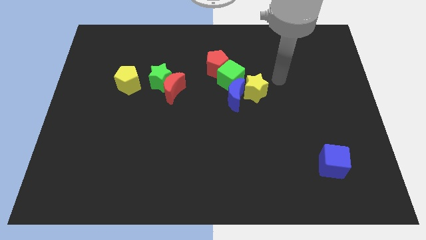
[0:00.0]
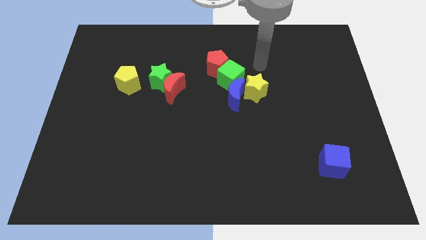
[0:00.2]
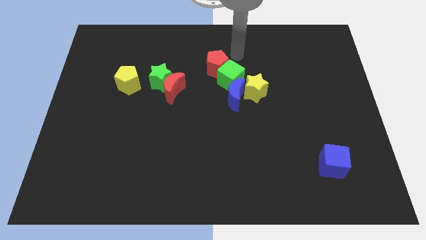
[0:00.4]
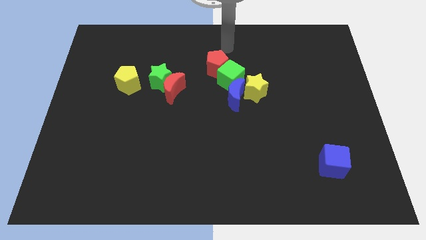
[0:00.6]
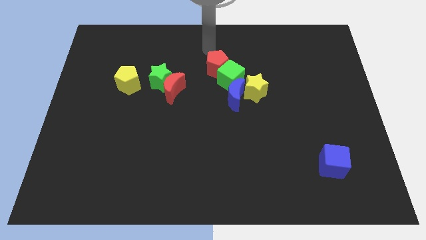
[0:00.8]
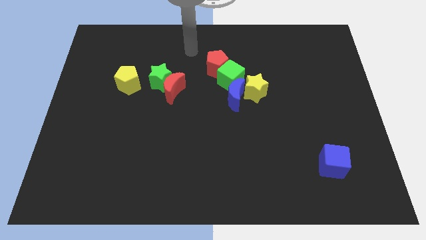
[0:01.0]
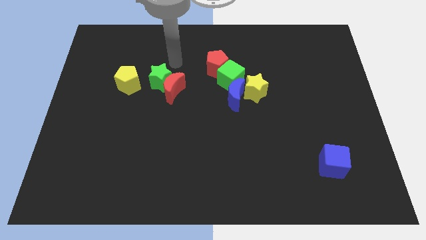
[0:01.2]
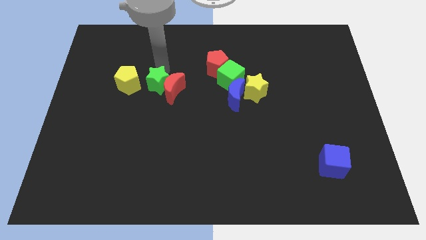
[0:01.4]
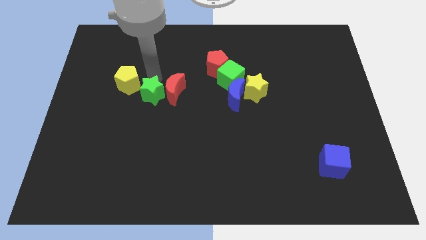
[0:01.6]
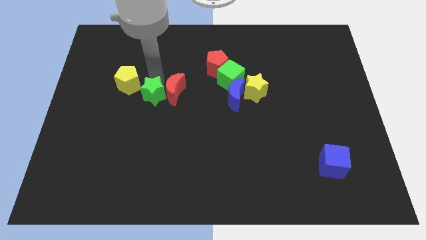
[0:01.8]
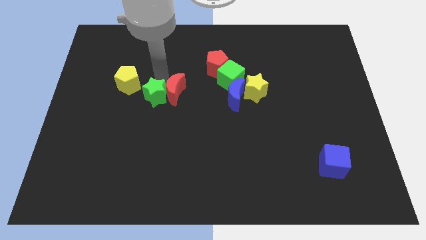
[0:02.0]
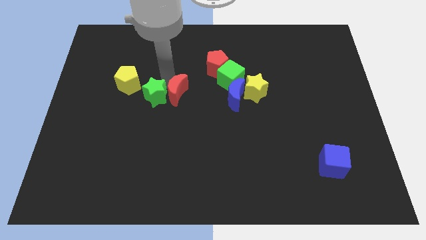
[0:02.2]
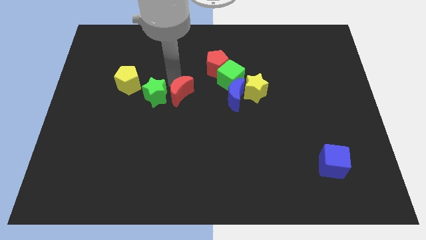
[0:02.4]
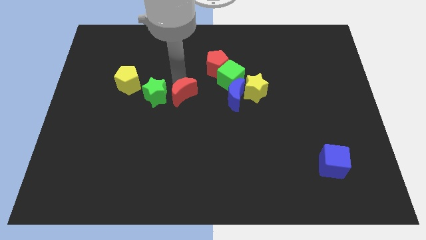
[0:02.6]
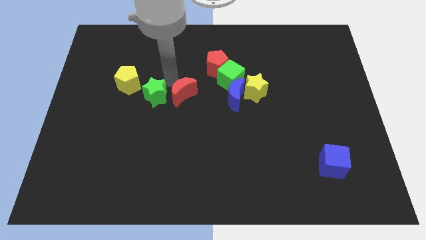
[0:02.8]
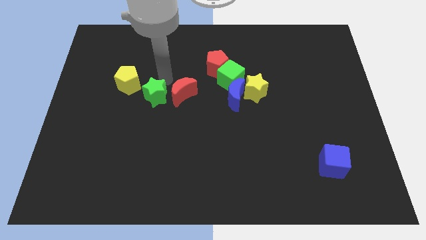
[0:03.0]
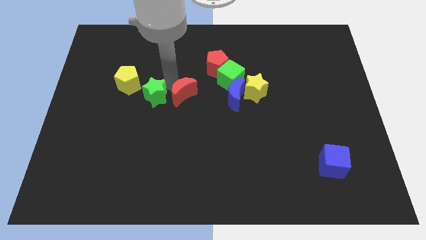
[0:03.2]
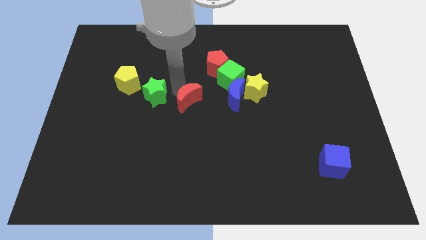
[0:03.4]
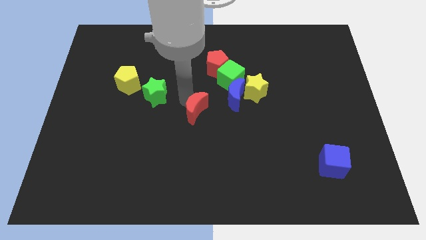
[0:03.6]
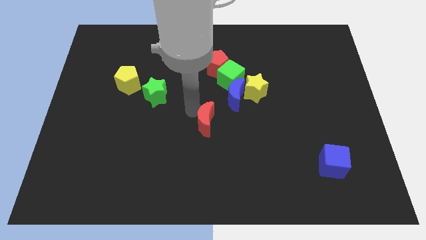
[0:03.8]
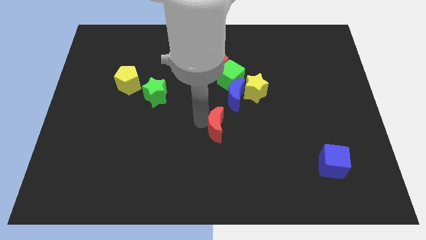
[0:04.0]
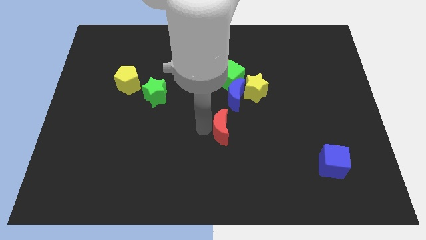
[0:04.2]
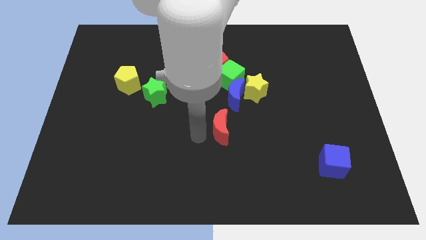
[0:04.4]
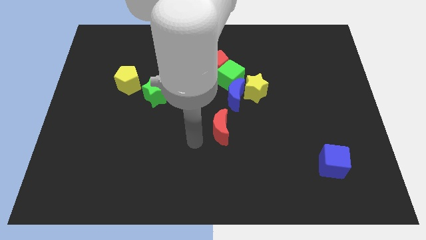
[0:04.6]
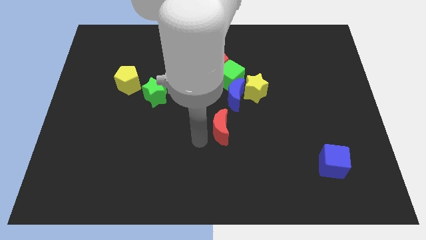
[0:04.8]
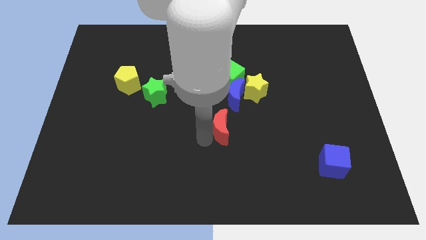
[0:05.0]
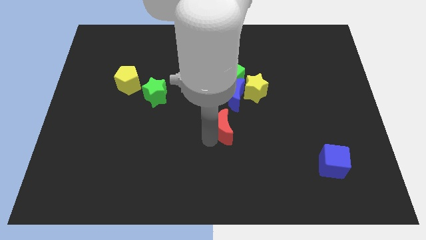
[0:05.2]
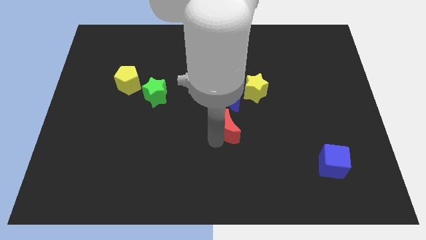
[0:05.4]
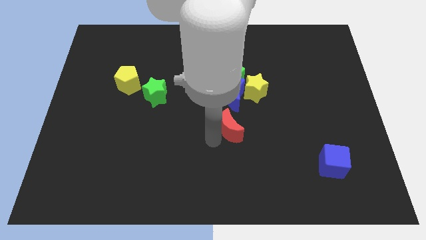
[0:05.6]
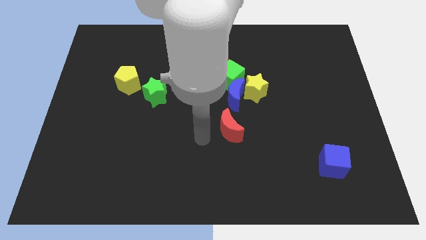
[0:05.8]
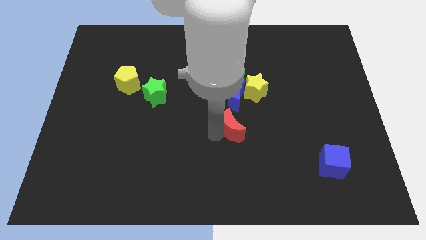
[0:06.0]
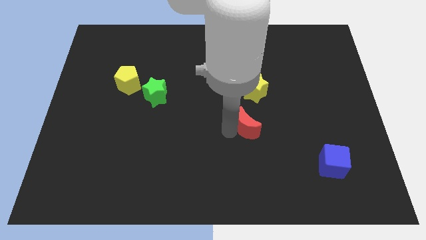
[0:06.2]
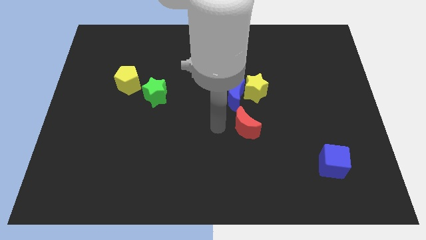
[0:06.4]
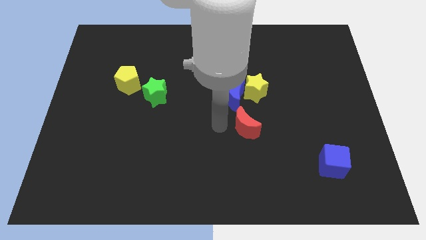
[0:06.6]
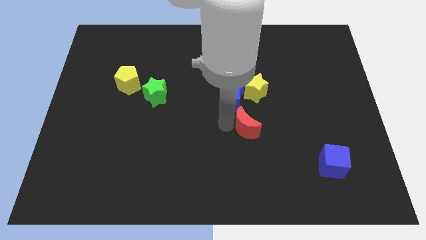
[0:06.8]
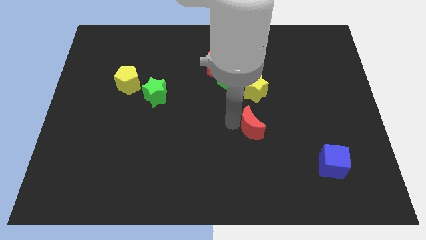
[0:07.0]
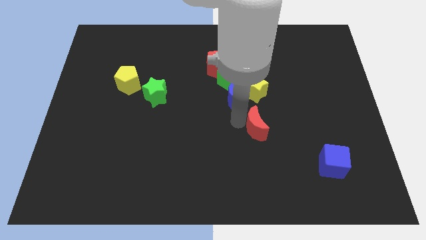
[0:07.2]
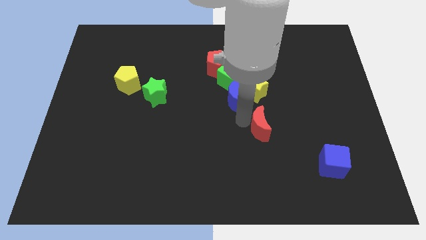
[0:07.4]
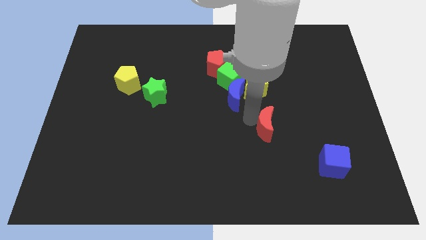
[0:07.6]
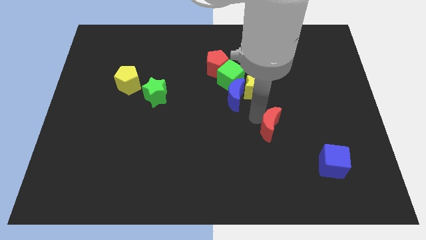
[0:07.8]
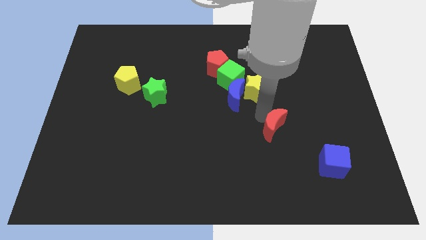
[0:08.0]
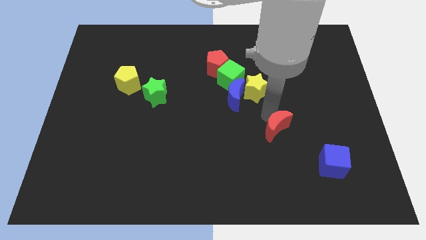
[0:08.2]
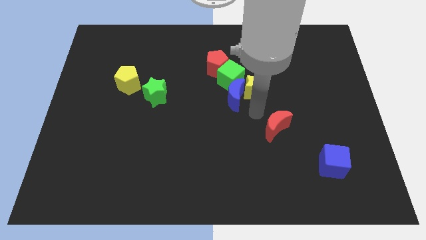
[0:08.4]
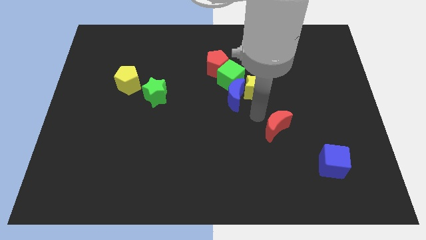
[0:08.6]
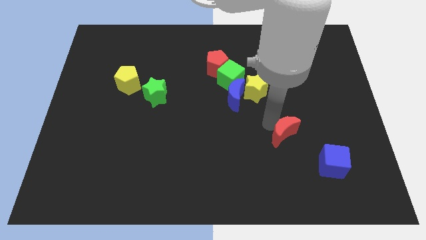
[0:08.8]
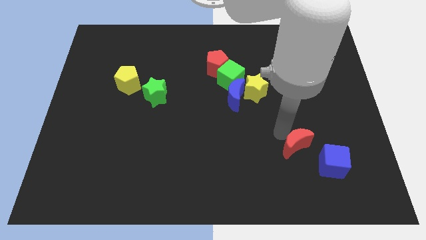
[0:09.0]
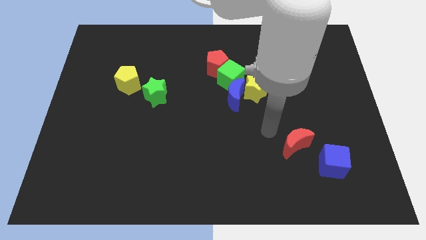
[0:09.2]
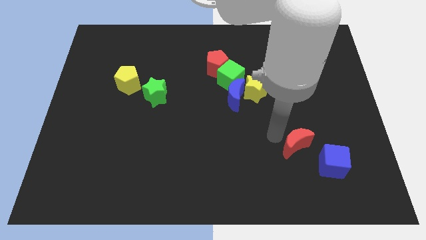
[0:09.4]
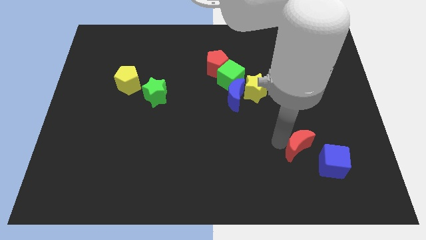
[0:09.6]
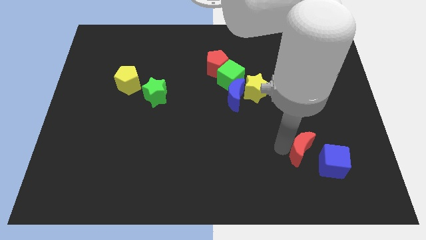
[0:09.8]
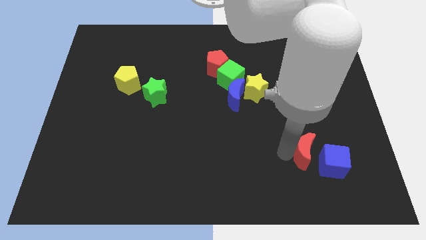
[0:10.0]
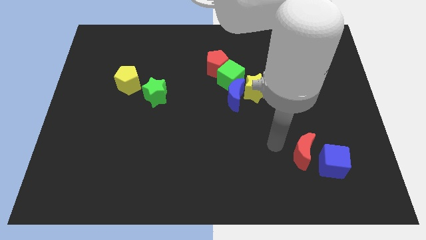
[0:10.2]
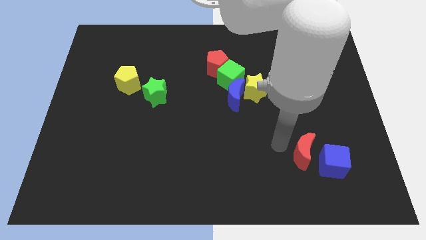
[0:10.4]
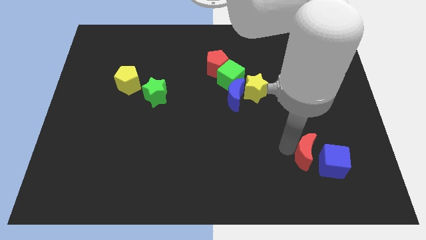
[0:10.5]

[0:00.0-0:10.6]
slide the red moon to the blue cube
